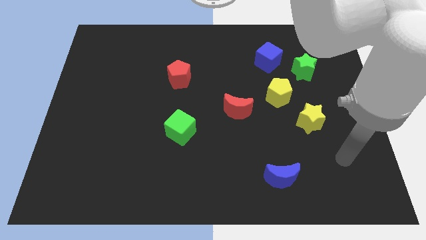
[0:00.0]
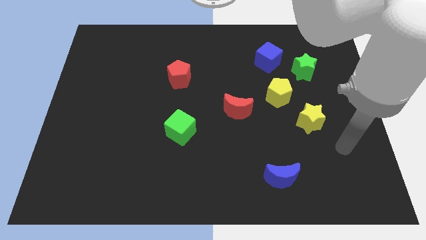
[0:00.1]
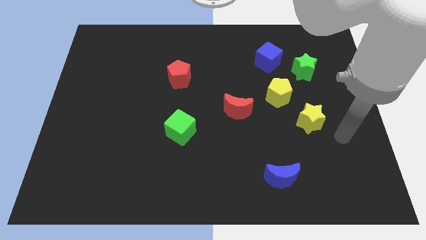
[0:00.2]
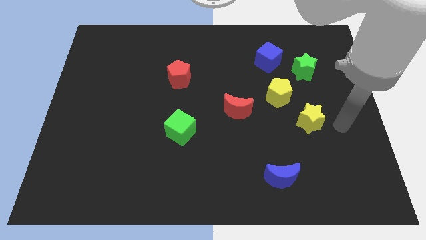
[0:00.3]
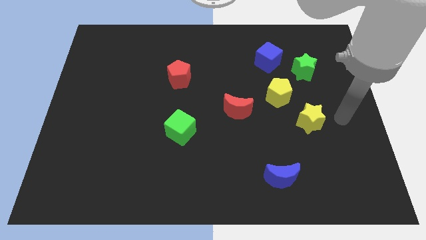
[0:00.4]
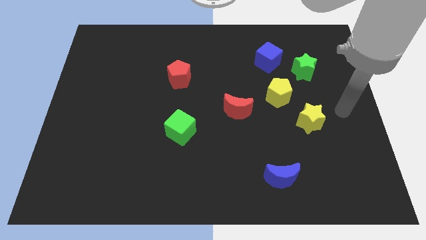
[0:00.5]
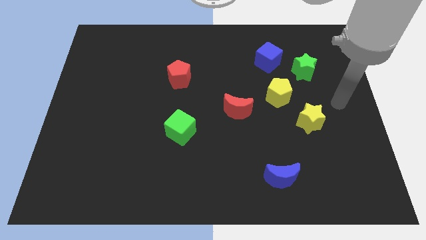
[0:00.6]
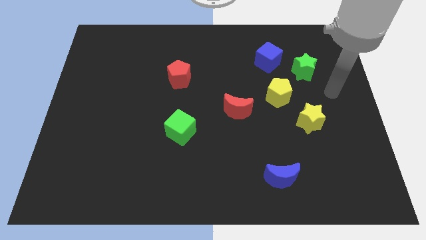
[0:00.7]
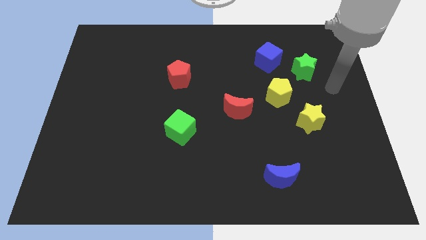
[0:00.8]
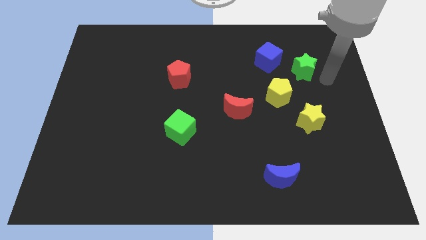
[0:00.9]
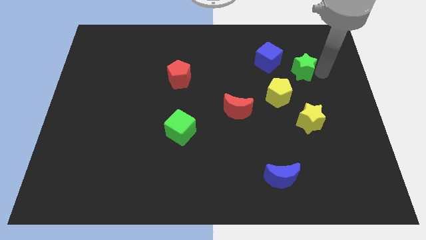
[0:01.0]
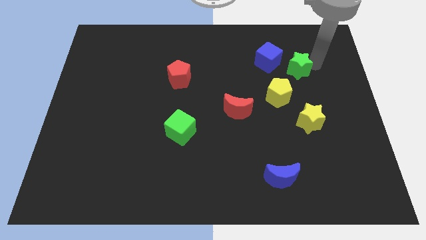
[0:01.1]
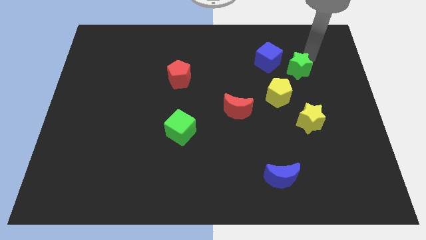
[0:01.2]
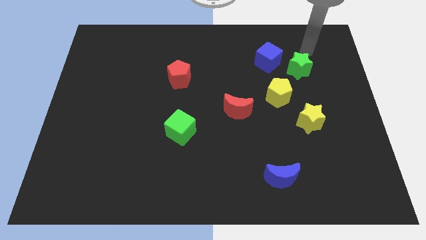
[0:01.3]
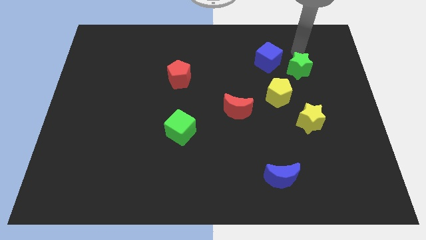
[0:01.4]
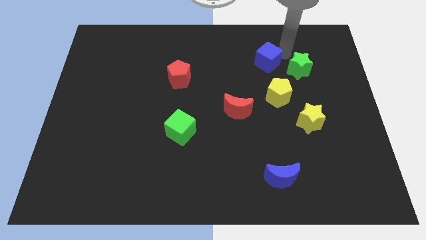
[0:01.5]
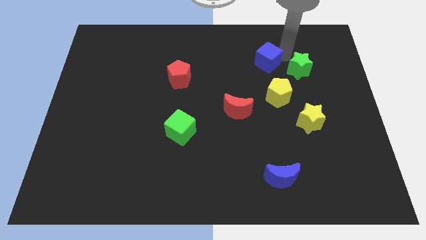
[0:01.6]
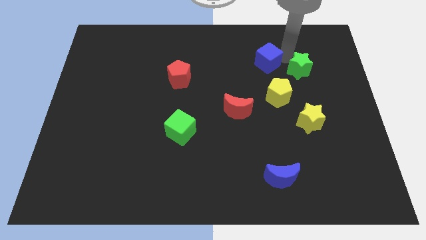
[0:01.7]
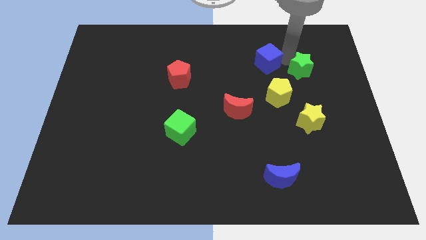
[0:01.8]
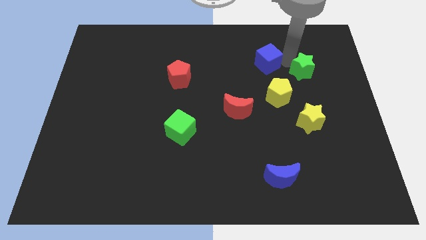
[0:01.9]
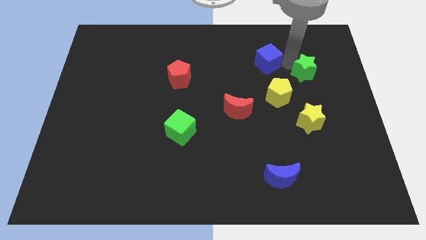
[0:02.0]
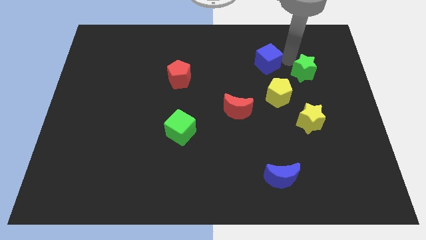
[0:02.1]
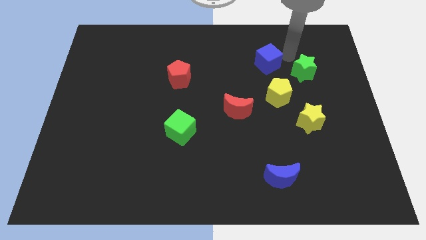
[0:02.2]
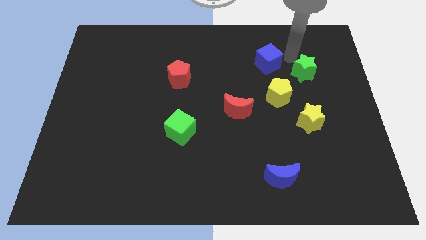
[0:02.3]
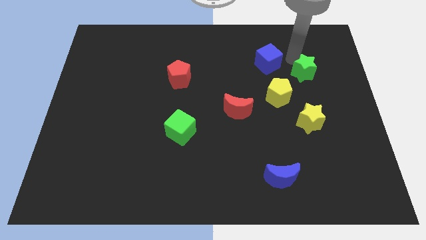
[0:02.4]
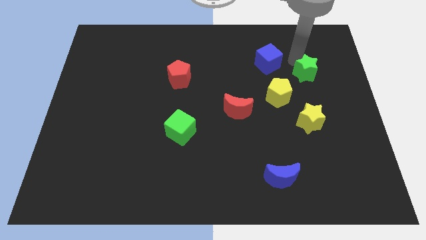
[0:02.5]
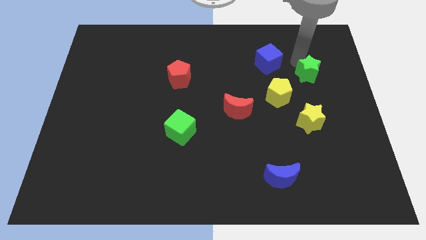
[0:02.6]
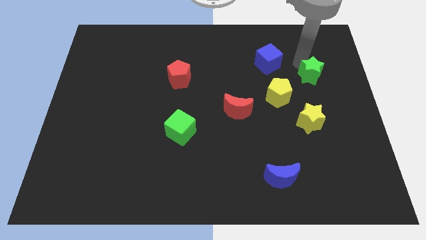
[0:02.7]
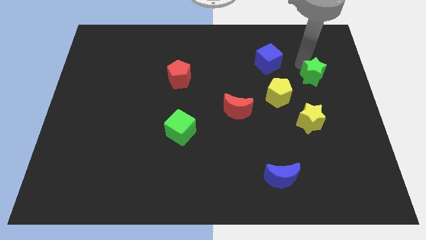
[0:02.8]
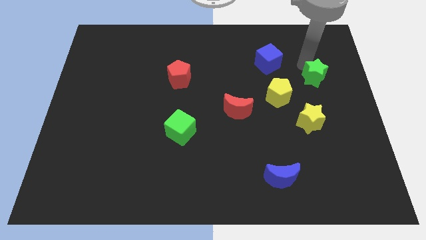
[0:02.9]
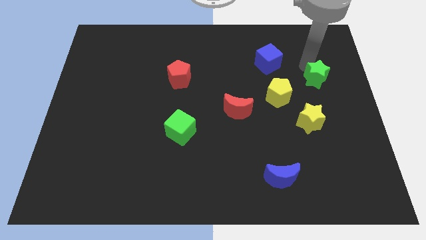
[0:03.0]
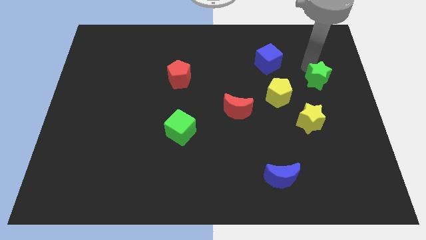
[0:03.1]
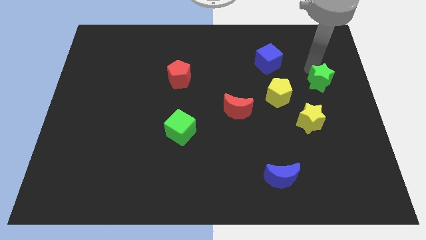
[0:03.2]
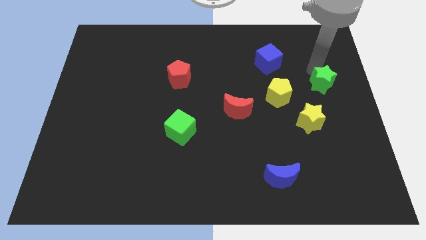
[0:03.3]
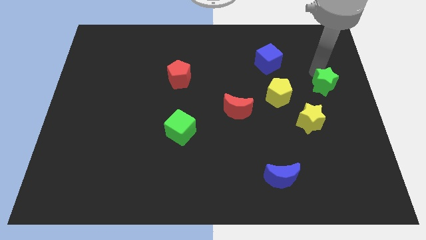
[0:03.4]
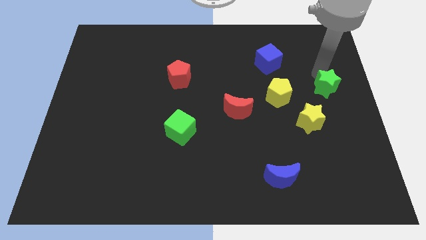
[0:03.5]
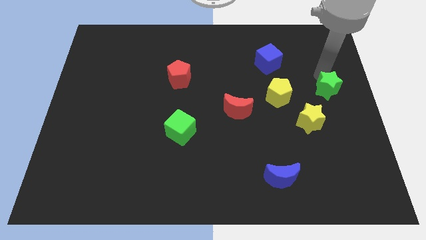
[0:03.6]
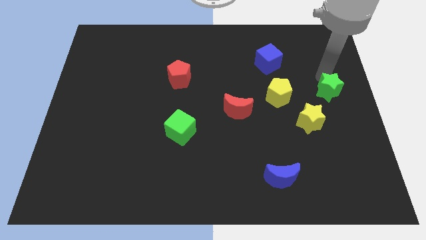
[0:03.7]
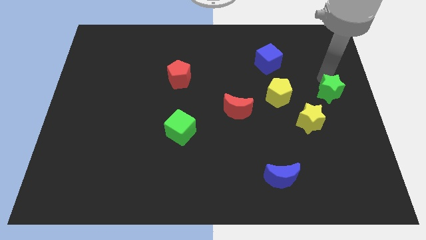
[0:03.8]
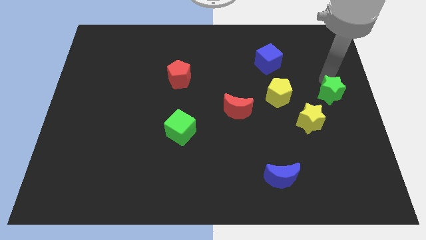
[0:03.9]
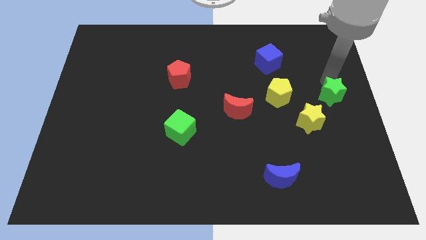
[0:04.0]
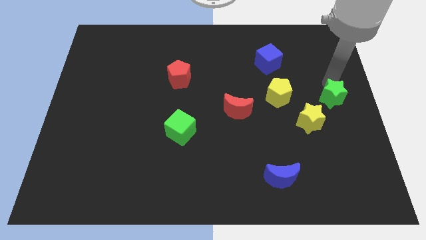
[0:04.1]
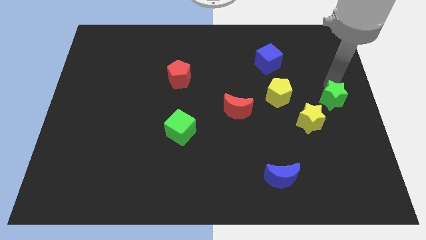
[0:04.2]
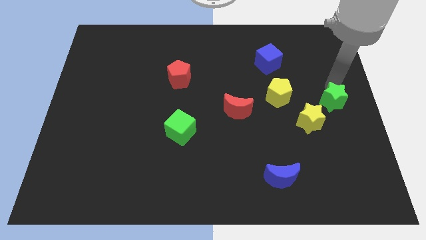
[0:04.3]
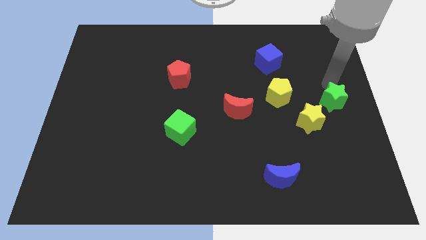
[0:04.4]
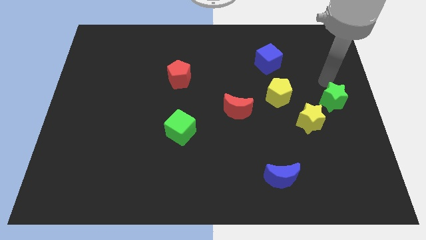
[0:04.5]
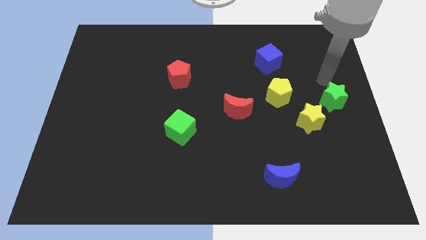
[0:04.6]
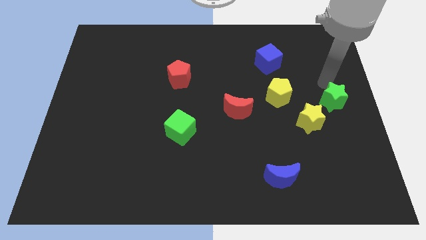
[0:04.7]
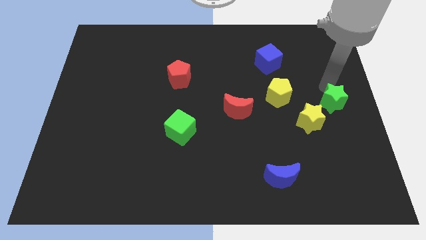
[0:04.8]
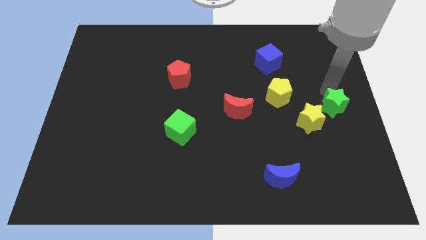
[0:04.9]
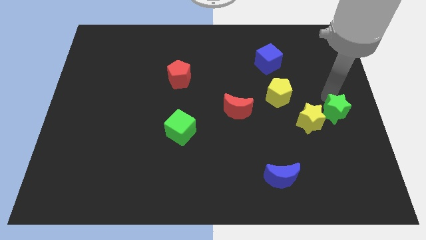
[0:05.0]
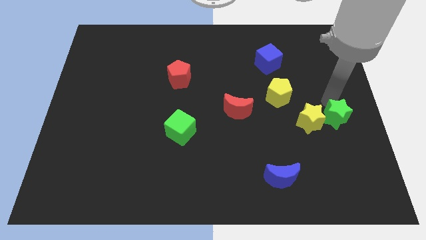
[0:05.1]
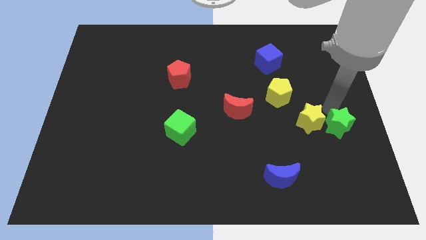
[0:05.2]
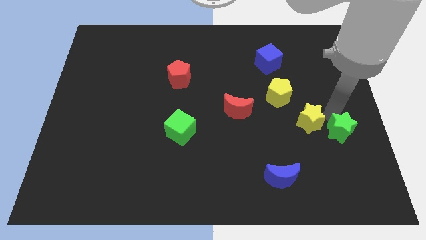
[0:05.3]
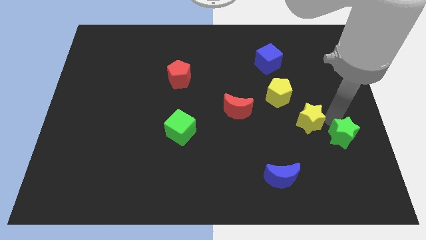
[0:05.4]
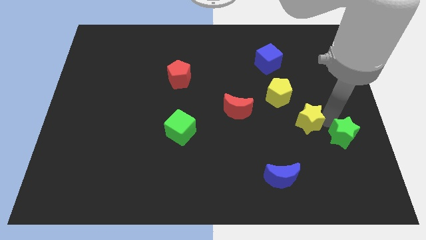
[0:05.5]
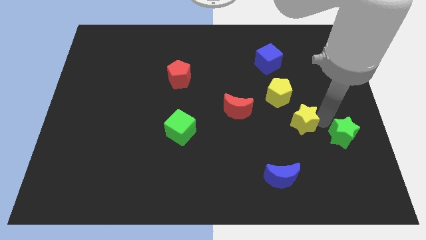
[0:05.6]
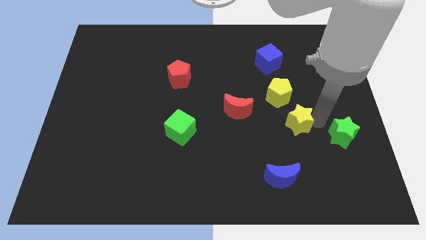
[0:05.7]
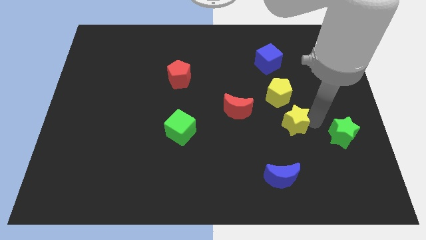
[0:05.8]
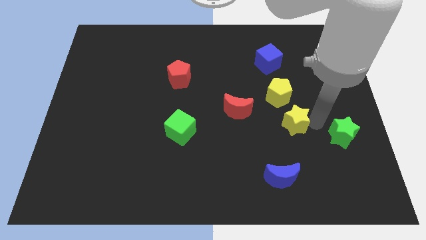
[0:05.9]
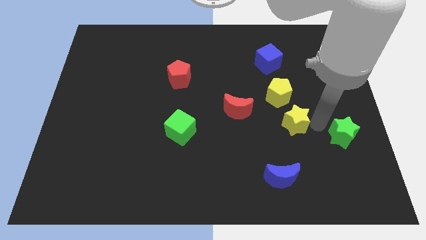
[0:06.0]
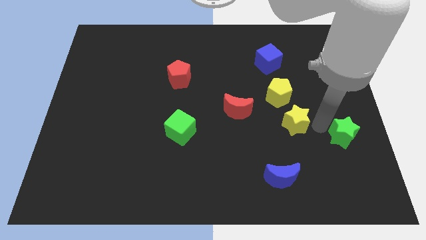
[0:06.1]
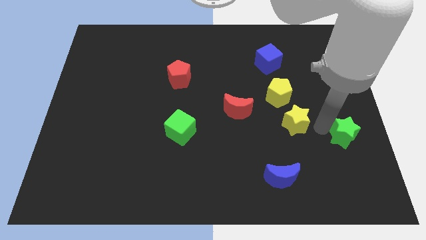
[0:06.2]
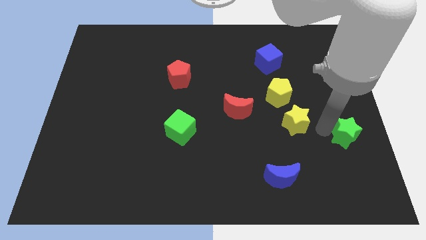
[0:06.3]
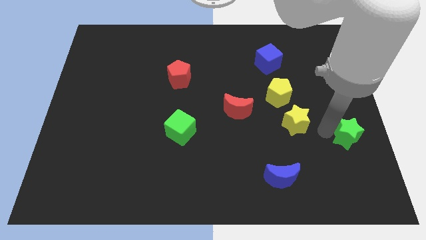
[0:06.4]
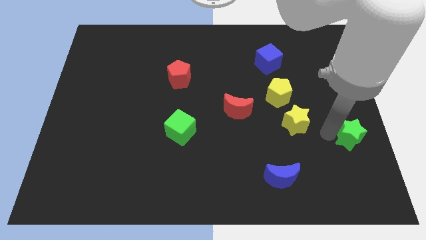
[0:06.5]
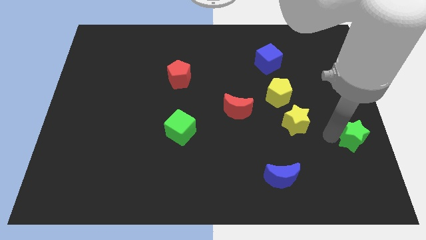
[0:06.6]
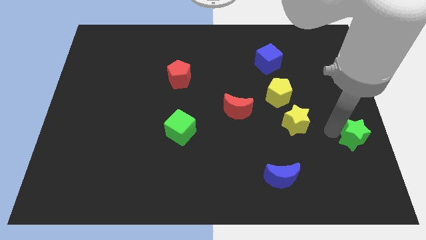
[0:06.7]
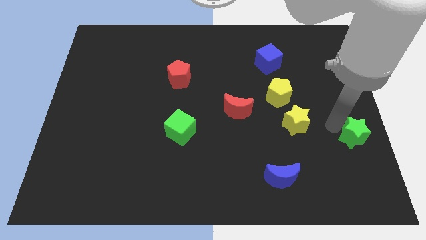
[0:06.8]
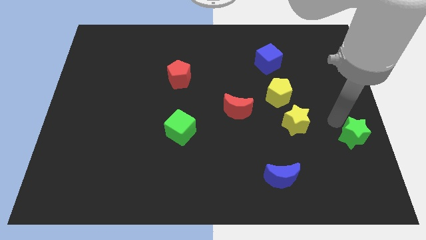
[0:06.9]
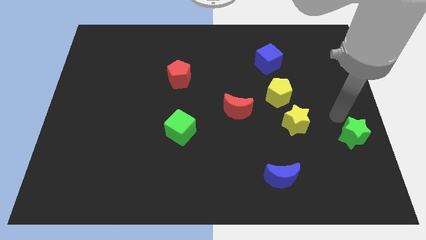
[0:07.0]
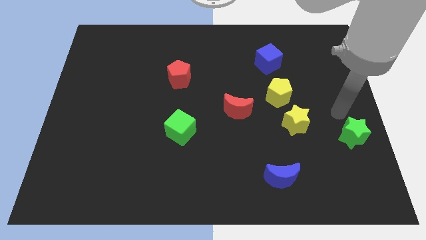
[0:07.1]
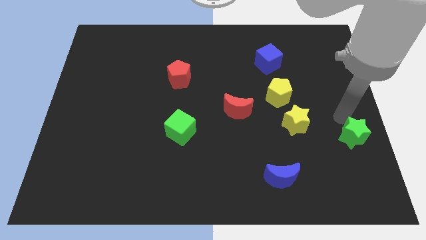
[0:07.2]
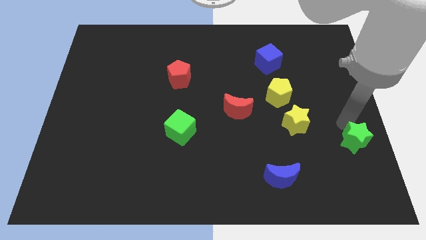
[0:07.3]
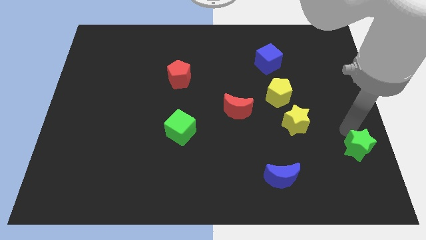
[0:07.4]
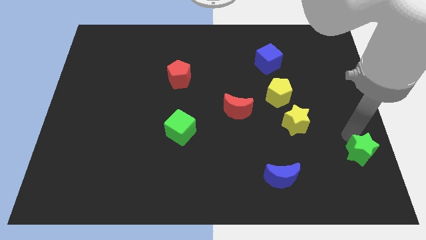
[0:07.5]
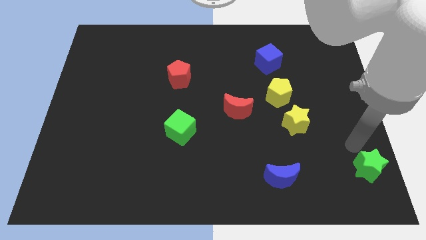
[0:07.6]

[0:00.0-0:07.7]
move the green star to the bottom right
